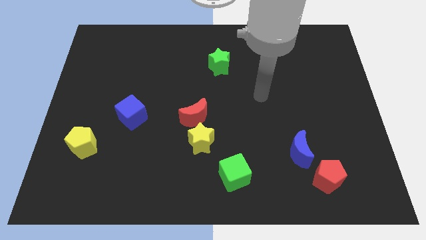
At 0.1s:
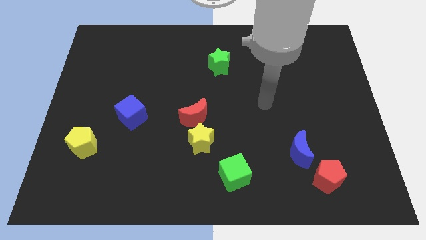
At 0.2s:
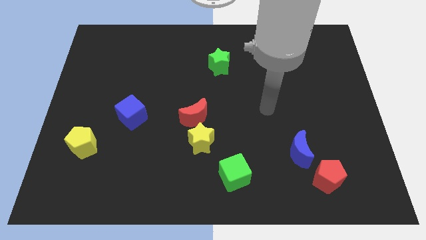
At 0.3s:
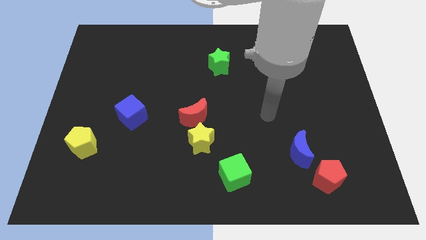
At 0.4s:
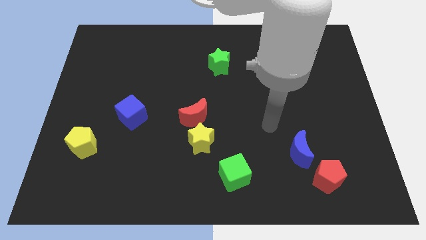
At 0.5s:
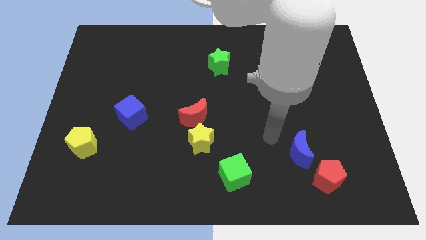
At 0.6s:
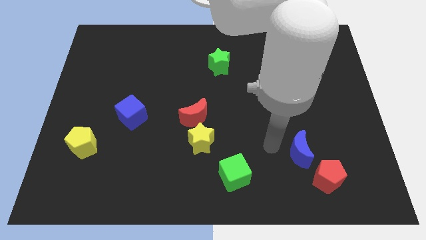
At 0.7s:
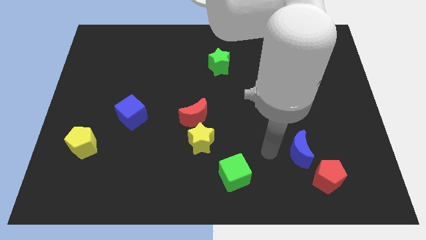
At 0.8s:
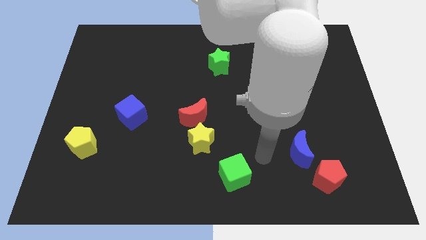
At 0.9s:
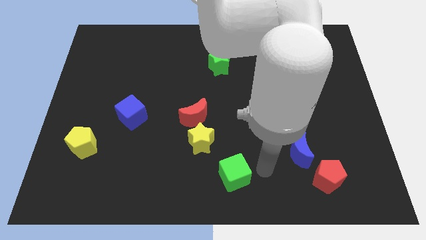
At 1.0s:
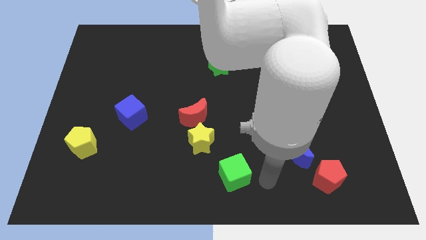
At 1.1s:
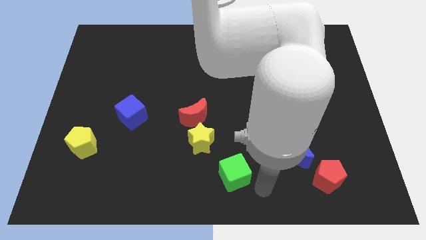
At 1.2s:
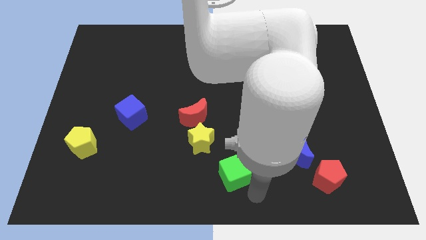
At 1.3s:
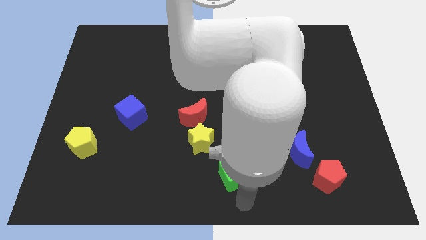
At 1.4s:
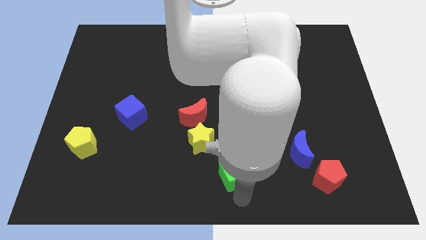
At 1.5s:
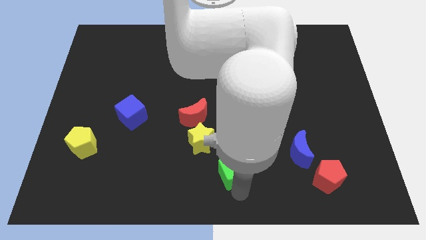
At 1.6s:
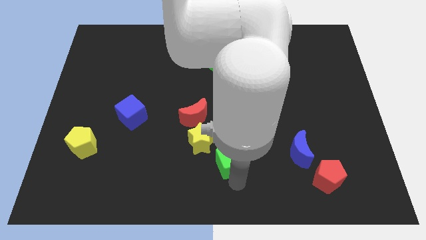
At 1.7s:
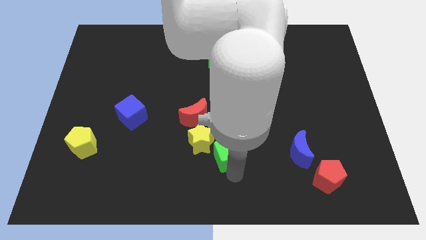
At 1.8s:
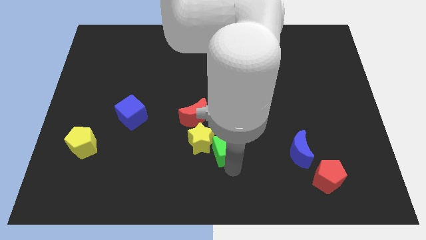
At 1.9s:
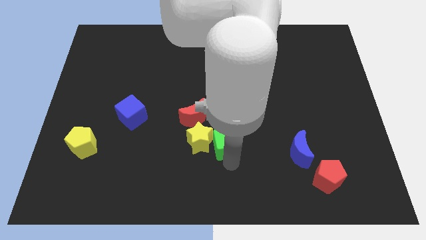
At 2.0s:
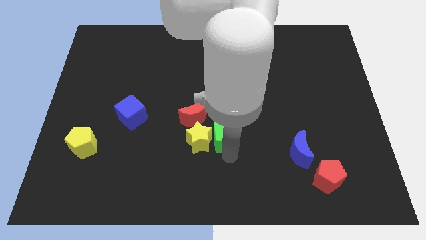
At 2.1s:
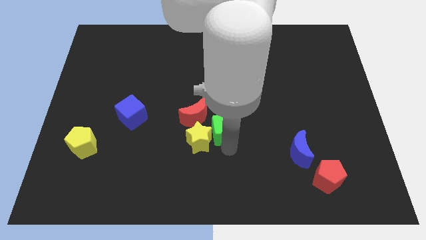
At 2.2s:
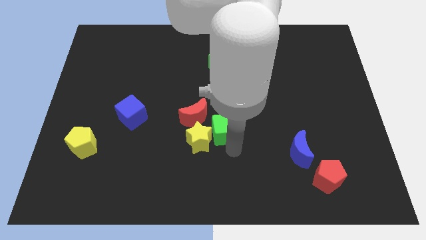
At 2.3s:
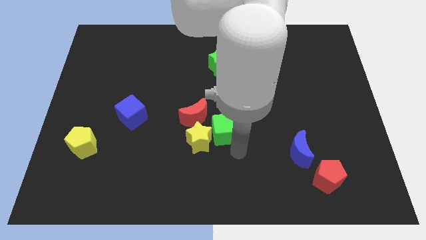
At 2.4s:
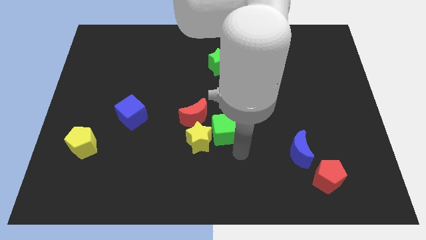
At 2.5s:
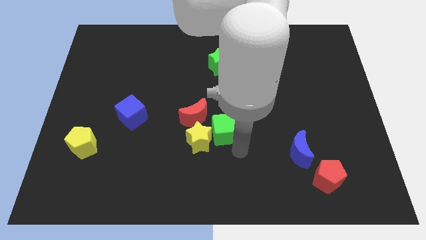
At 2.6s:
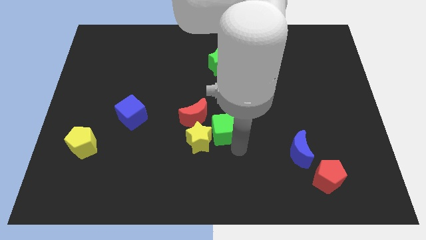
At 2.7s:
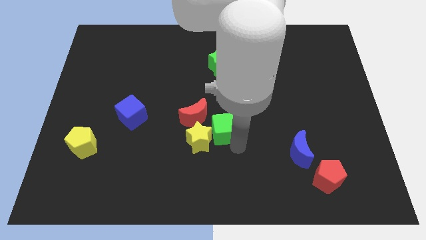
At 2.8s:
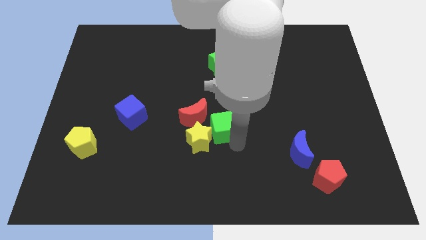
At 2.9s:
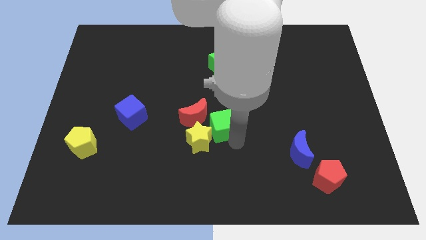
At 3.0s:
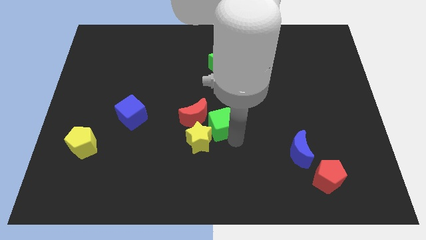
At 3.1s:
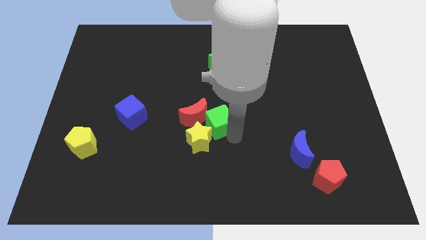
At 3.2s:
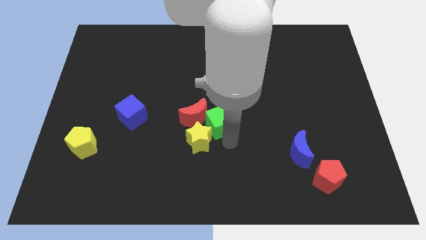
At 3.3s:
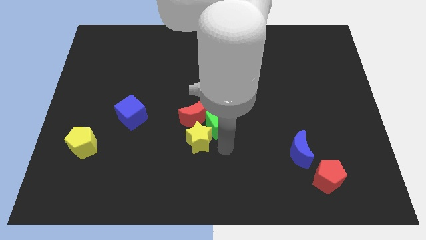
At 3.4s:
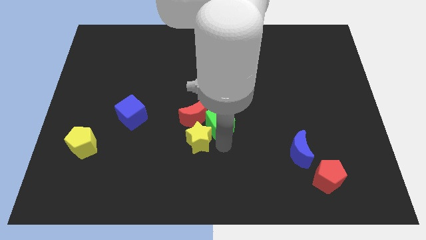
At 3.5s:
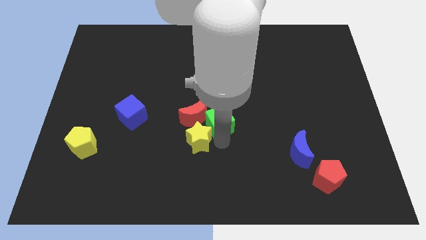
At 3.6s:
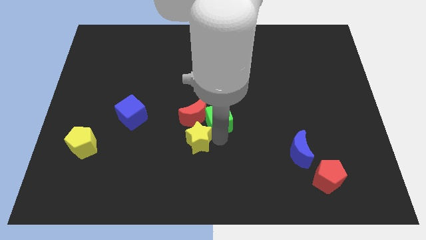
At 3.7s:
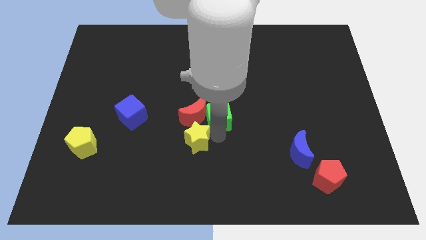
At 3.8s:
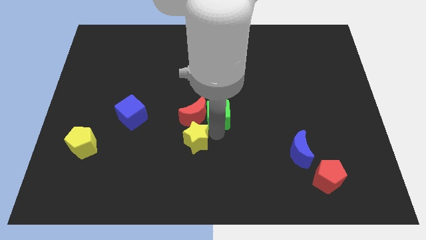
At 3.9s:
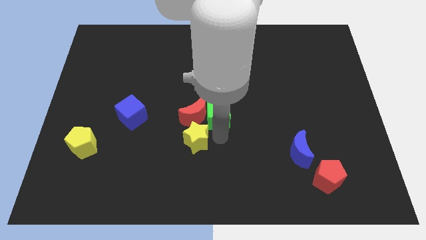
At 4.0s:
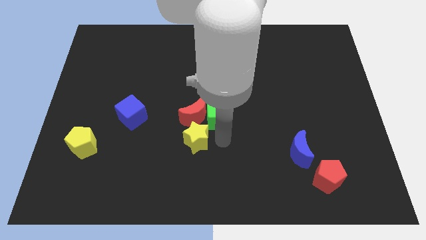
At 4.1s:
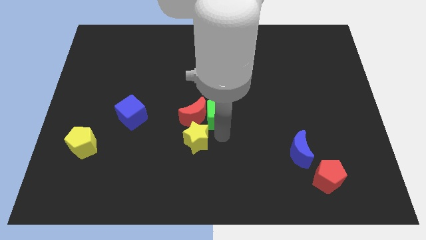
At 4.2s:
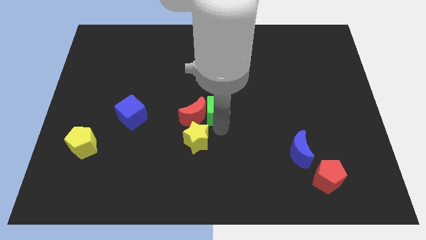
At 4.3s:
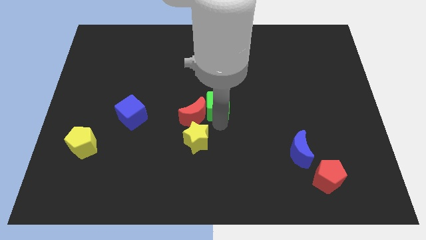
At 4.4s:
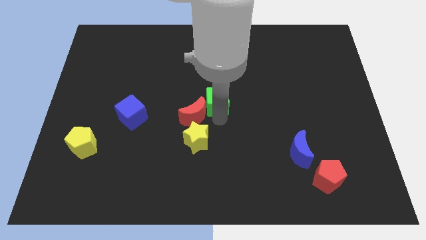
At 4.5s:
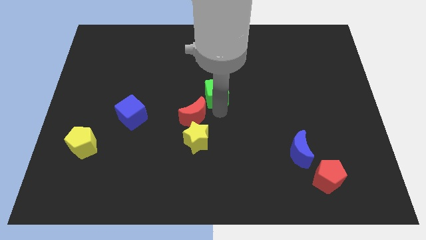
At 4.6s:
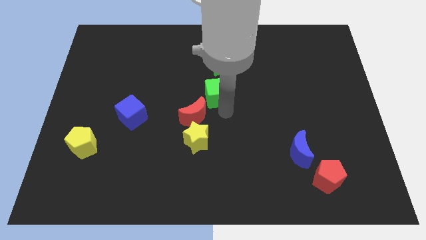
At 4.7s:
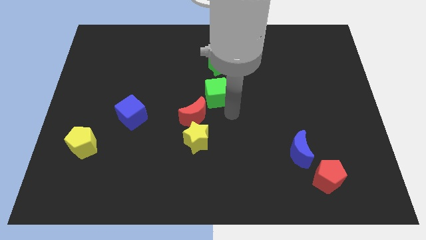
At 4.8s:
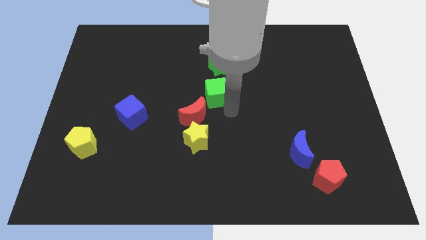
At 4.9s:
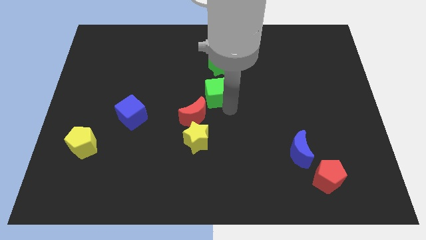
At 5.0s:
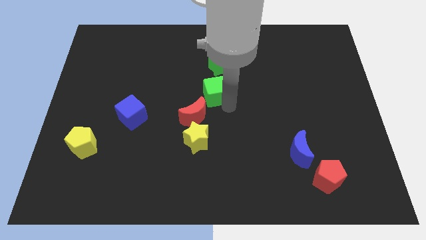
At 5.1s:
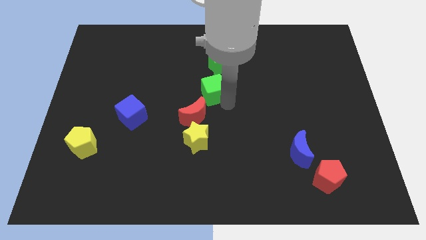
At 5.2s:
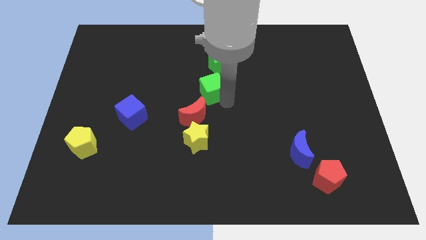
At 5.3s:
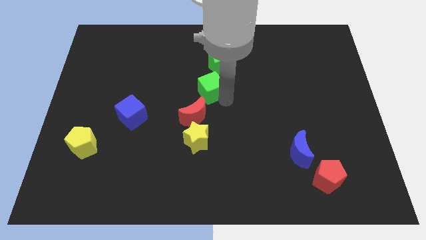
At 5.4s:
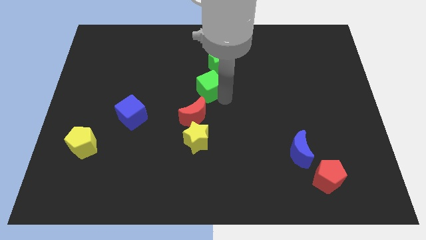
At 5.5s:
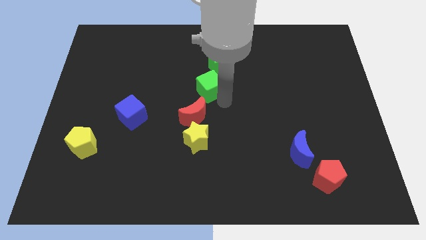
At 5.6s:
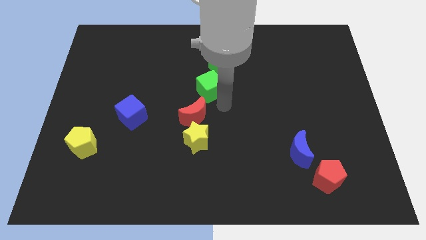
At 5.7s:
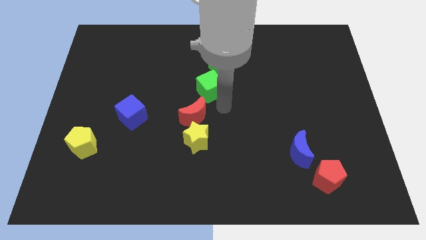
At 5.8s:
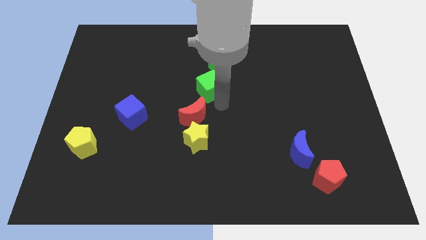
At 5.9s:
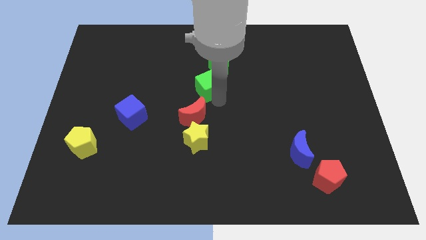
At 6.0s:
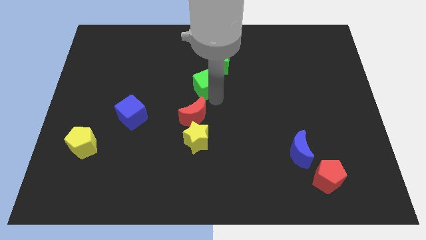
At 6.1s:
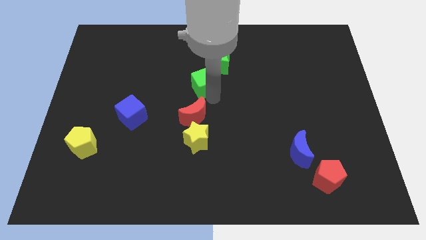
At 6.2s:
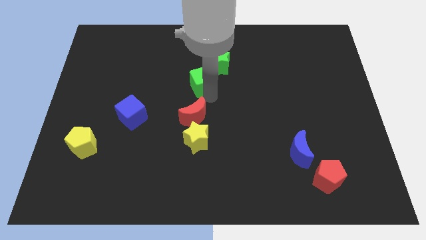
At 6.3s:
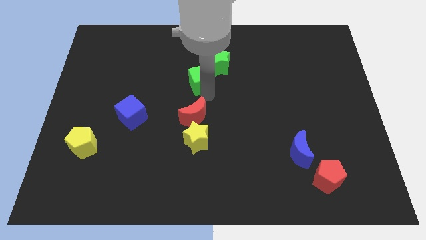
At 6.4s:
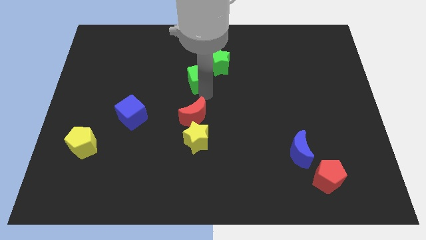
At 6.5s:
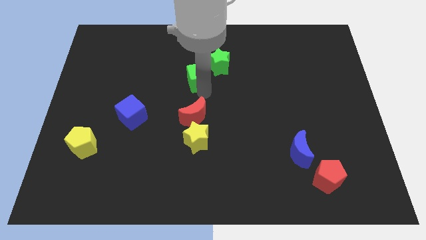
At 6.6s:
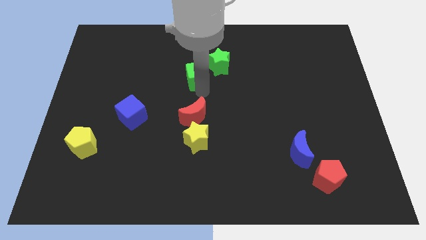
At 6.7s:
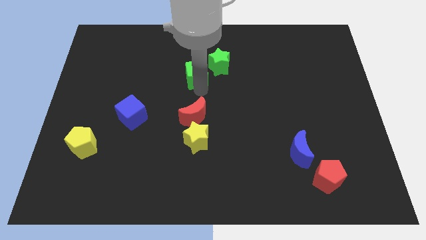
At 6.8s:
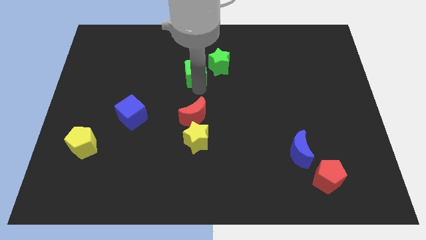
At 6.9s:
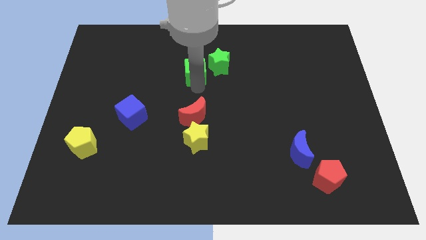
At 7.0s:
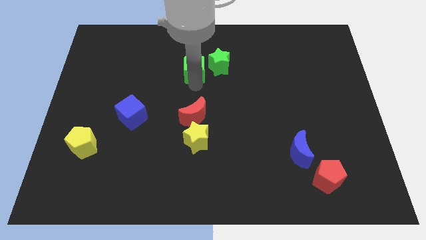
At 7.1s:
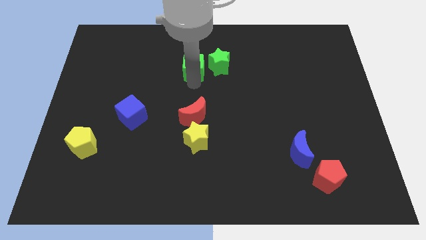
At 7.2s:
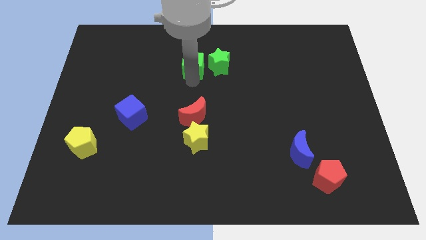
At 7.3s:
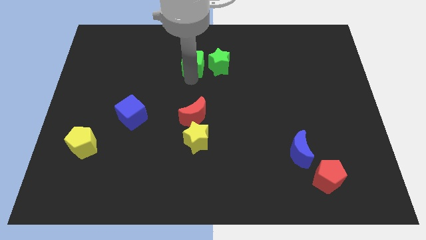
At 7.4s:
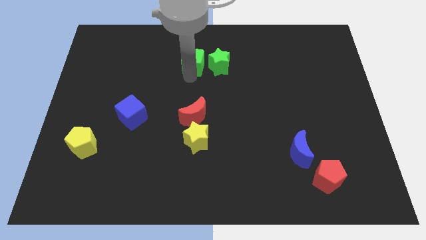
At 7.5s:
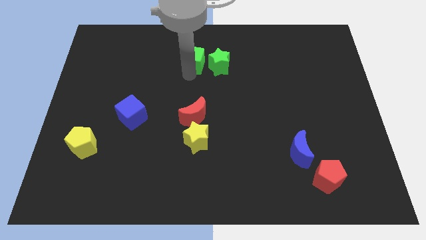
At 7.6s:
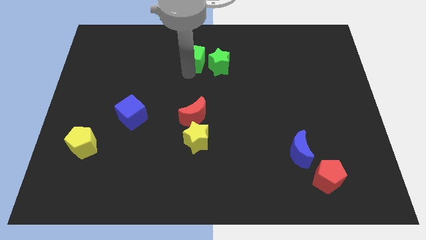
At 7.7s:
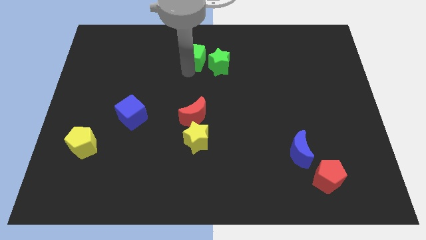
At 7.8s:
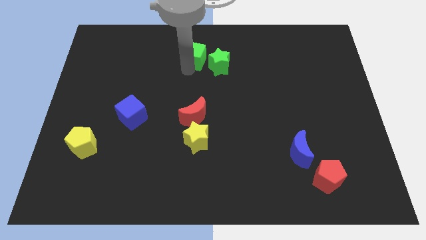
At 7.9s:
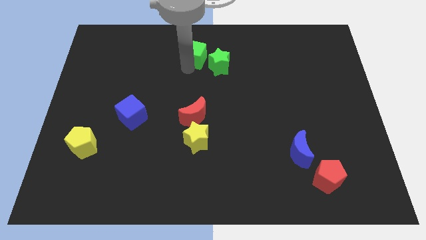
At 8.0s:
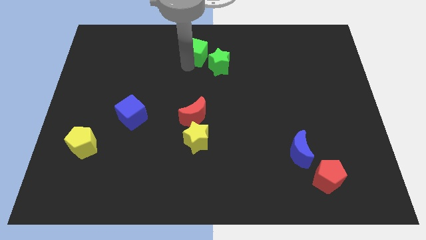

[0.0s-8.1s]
push the green cube to the top
